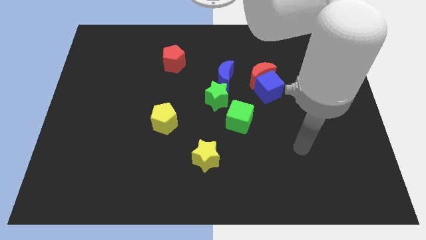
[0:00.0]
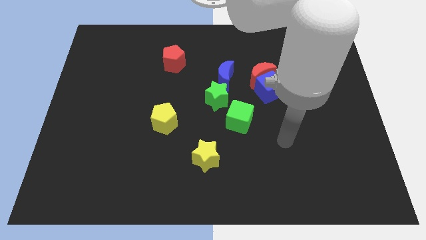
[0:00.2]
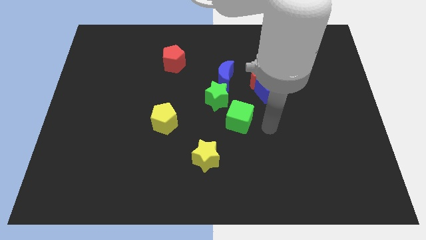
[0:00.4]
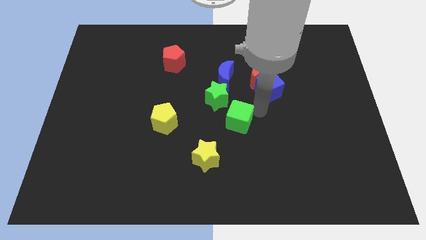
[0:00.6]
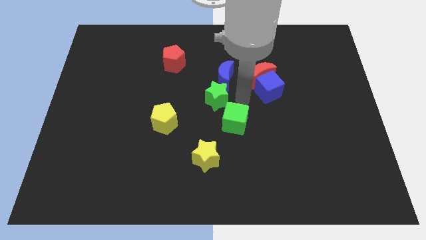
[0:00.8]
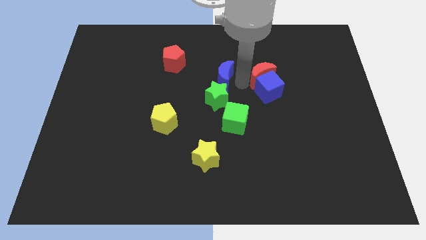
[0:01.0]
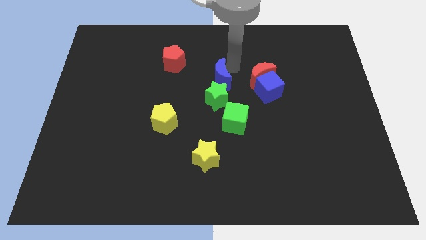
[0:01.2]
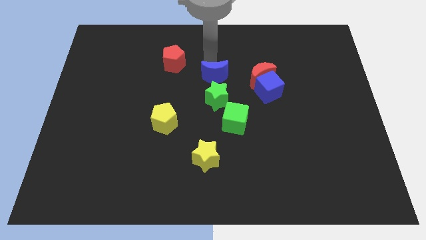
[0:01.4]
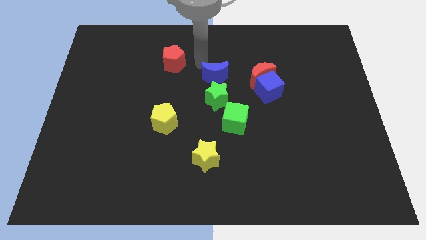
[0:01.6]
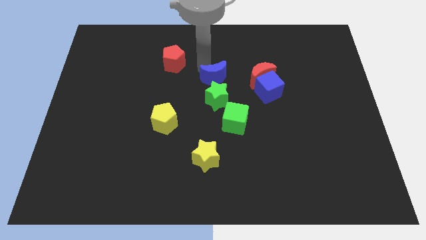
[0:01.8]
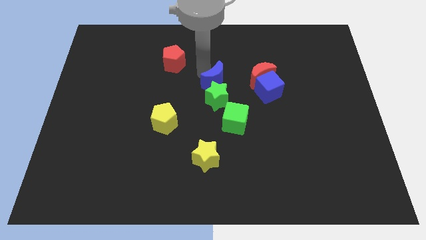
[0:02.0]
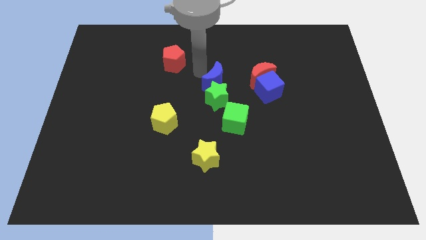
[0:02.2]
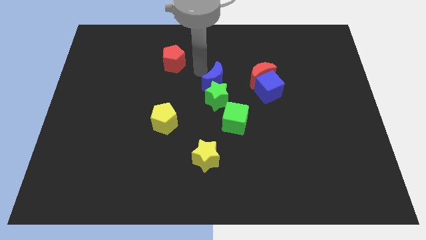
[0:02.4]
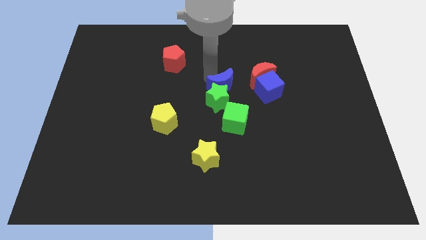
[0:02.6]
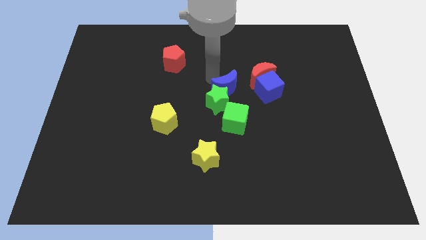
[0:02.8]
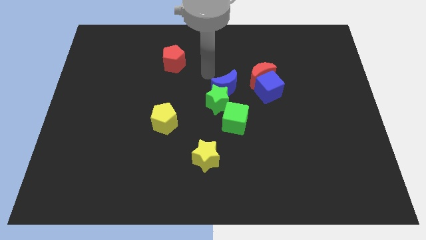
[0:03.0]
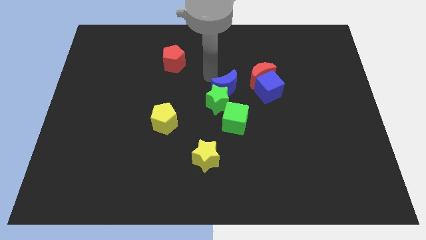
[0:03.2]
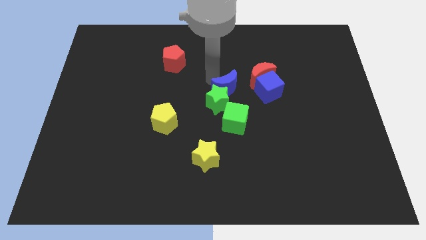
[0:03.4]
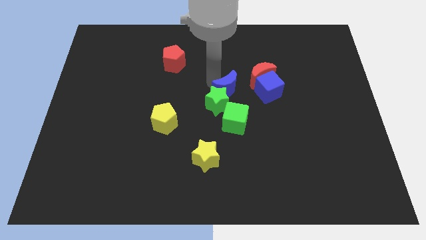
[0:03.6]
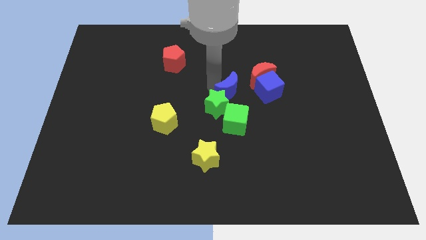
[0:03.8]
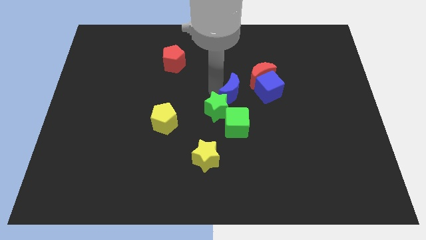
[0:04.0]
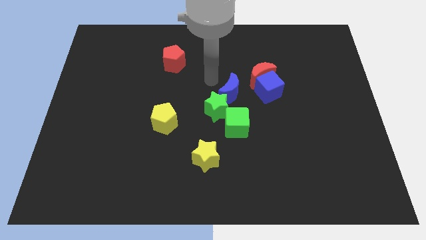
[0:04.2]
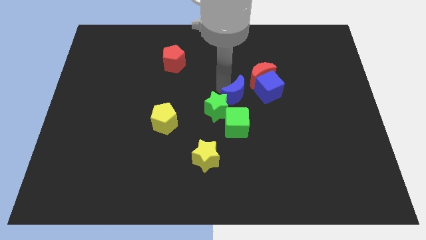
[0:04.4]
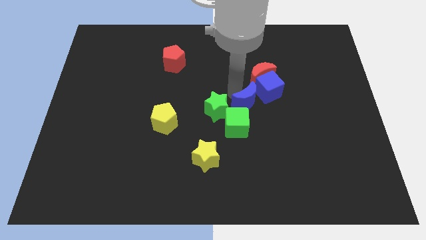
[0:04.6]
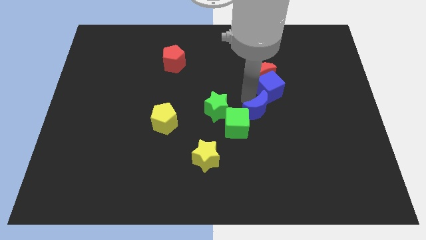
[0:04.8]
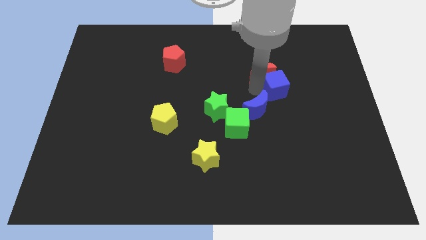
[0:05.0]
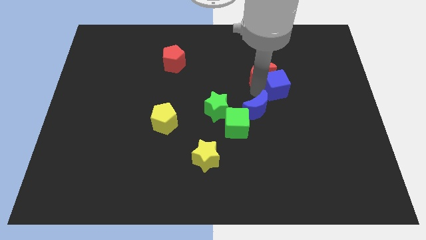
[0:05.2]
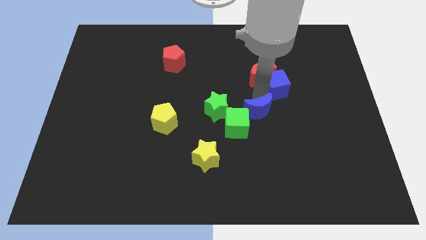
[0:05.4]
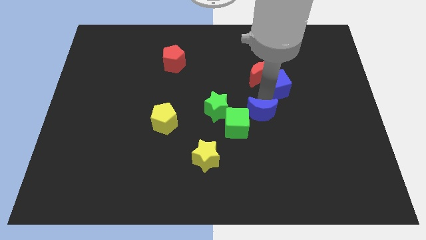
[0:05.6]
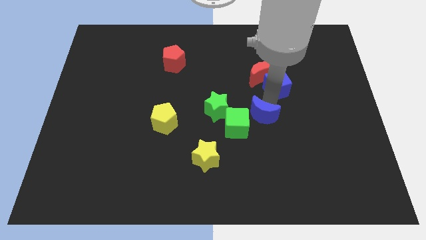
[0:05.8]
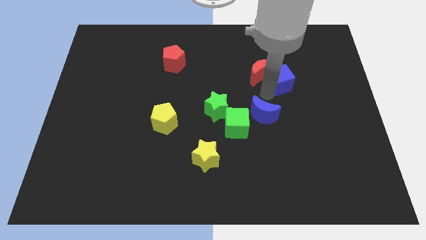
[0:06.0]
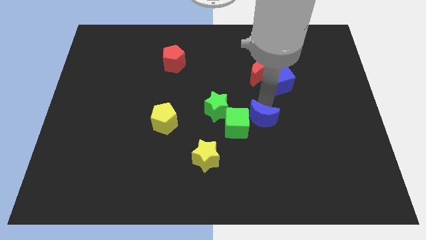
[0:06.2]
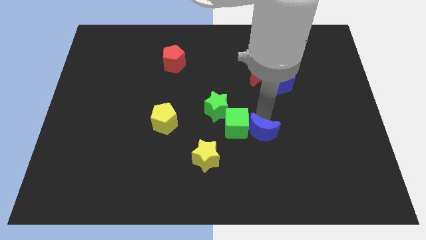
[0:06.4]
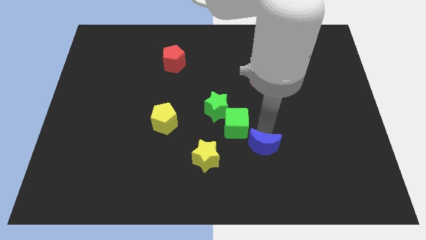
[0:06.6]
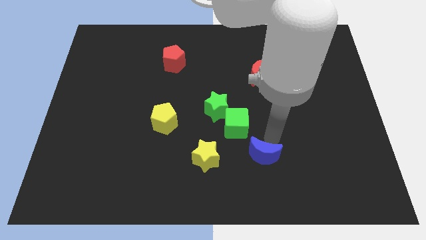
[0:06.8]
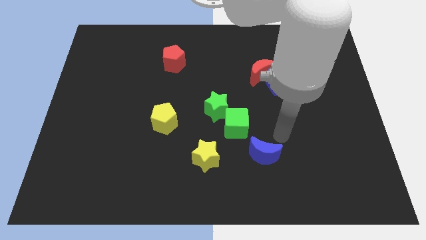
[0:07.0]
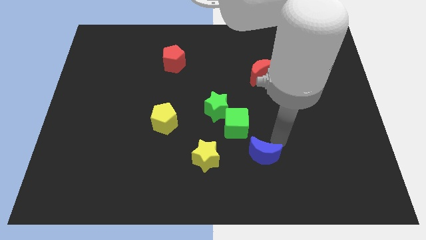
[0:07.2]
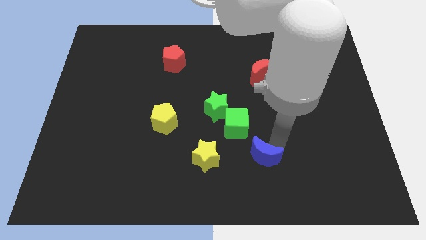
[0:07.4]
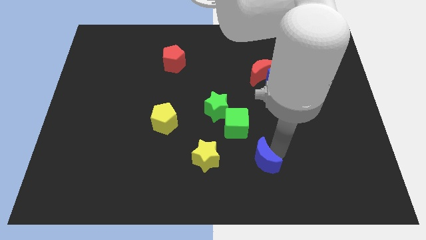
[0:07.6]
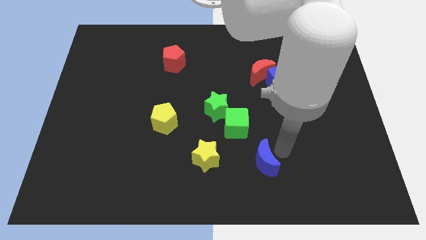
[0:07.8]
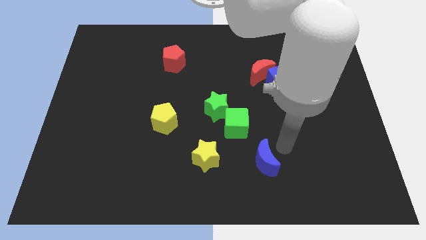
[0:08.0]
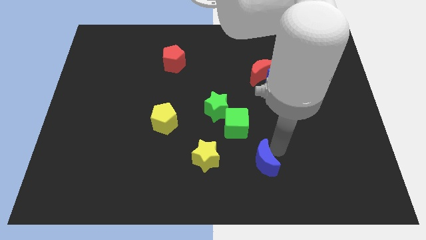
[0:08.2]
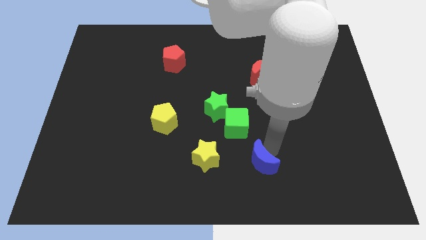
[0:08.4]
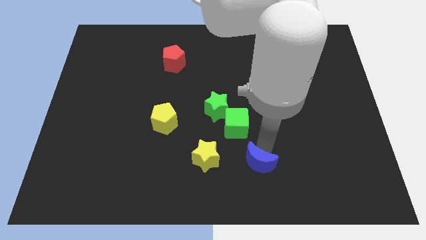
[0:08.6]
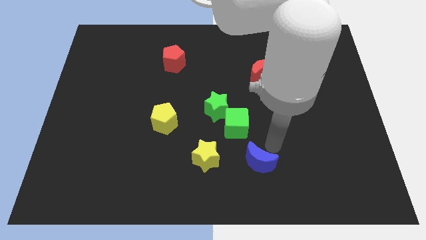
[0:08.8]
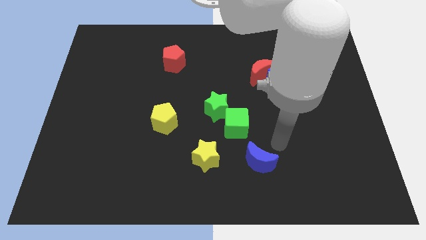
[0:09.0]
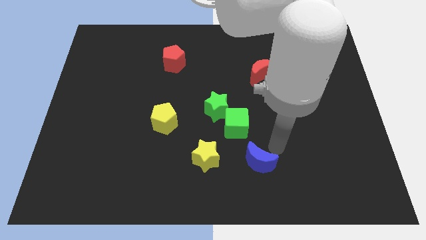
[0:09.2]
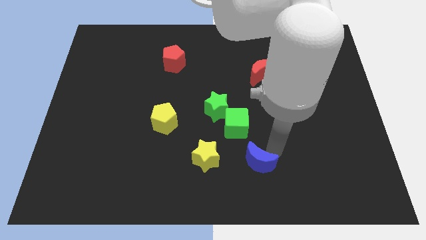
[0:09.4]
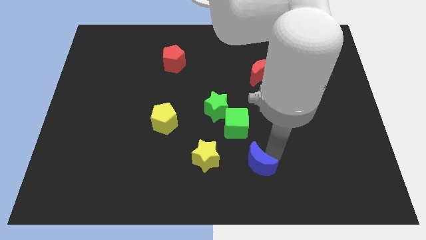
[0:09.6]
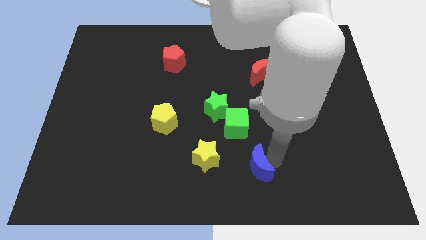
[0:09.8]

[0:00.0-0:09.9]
move the blue moon to the bottom

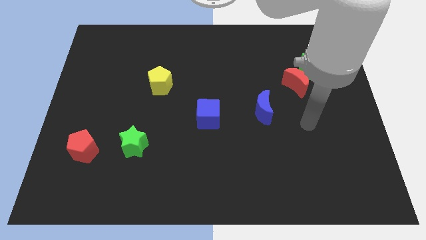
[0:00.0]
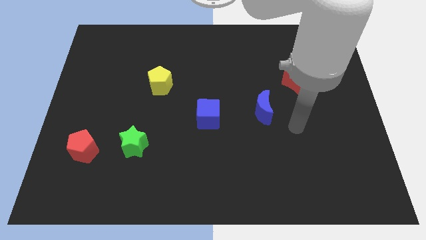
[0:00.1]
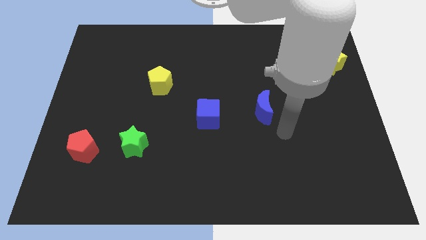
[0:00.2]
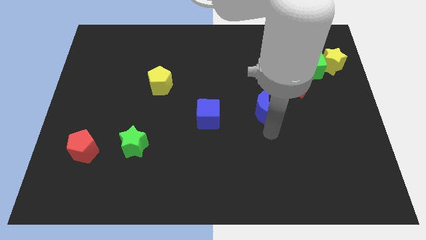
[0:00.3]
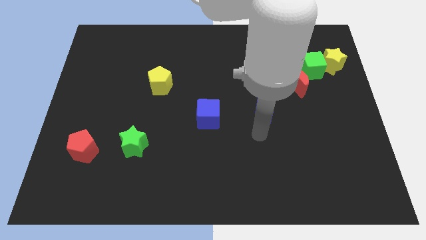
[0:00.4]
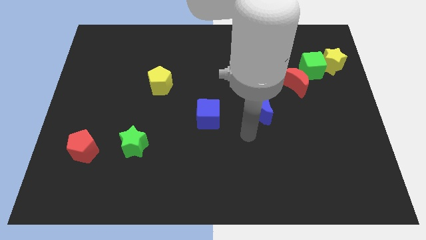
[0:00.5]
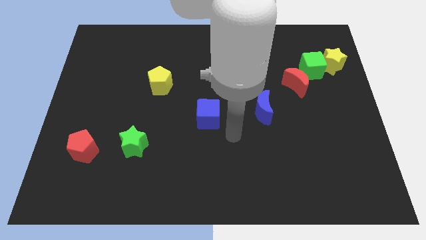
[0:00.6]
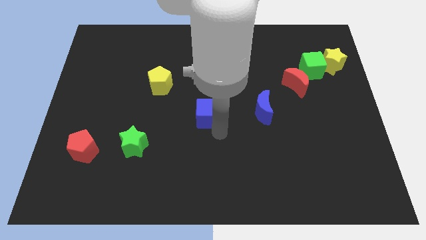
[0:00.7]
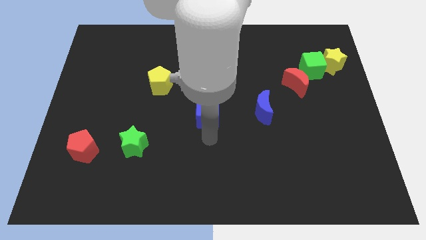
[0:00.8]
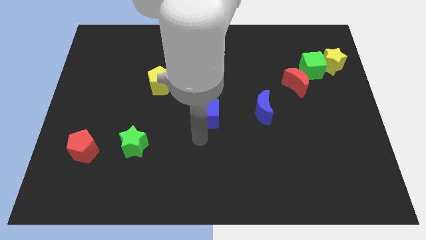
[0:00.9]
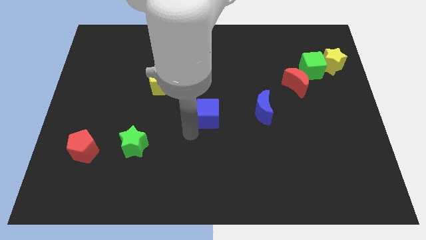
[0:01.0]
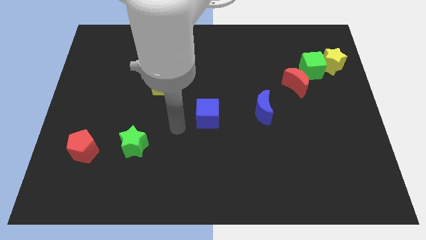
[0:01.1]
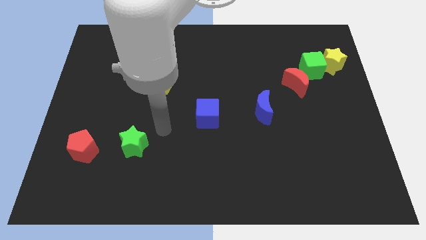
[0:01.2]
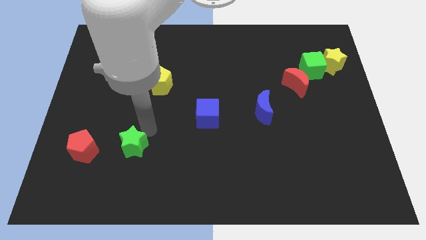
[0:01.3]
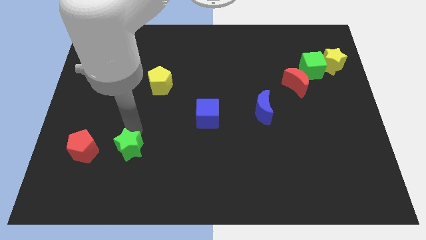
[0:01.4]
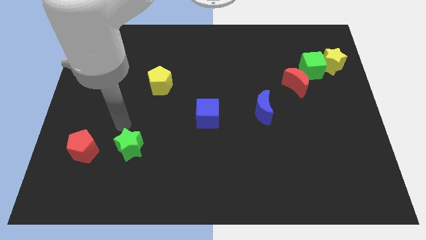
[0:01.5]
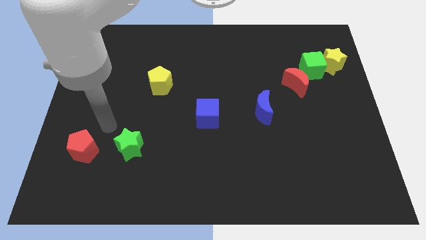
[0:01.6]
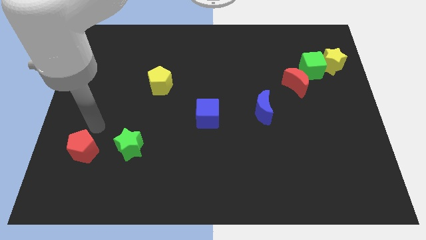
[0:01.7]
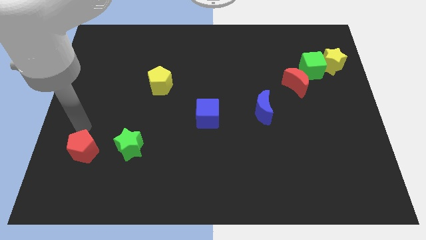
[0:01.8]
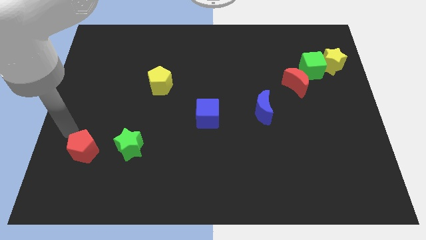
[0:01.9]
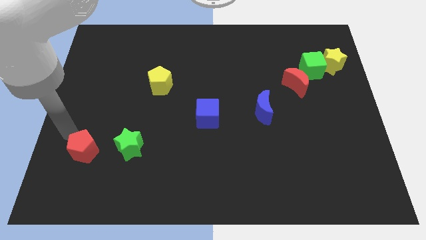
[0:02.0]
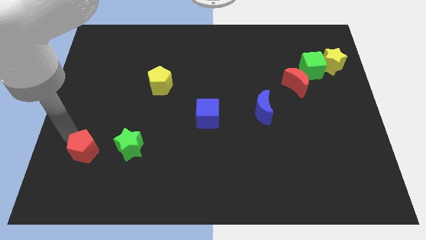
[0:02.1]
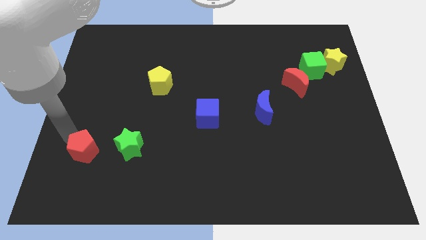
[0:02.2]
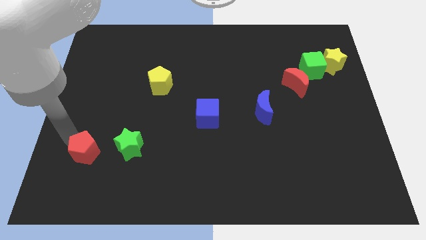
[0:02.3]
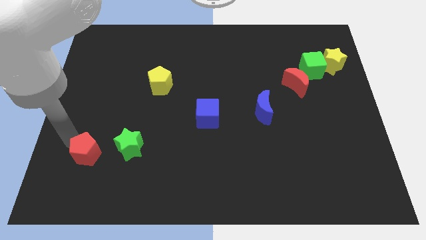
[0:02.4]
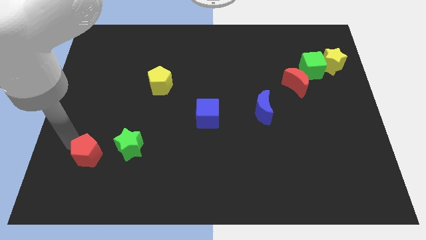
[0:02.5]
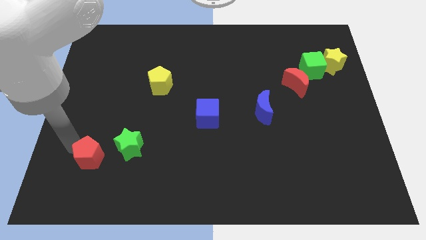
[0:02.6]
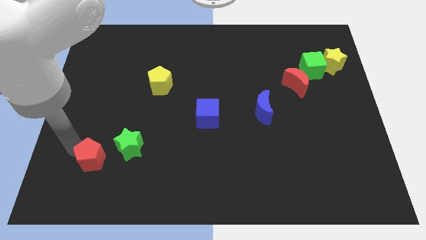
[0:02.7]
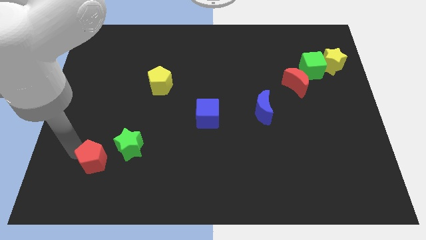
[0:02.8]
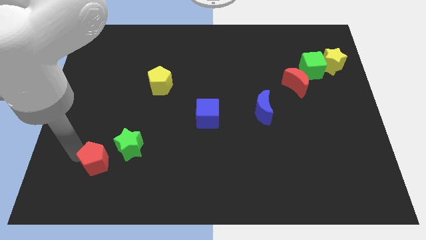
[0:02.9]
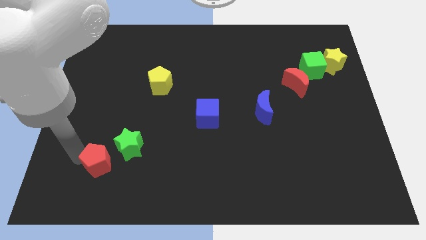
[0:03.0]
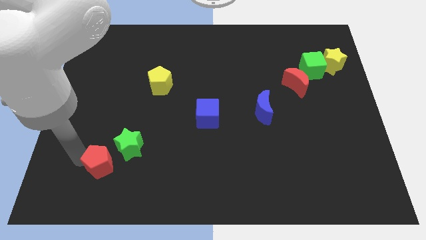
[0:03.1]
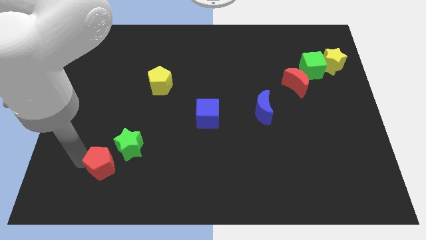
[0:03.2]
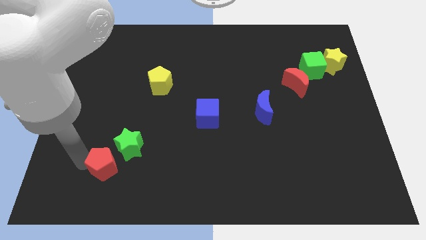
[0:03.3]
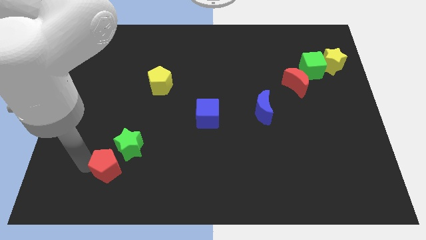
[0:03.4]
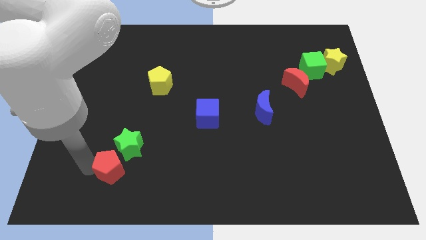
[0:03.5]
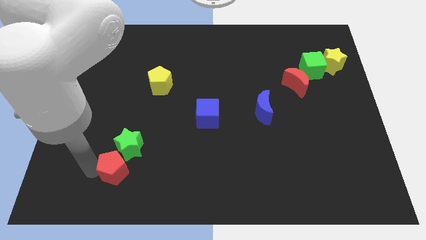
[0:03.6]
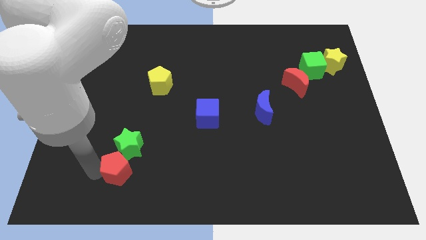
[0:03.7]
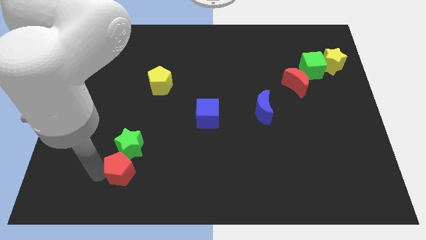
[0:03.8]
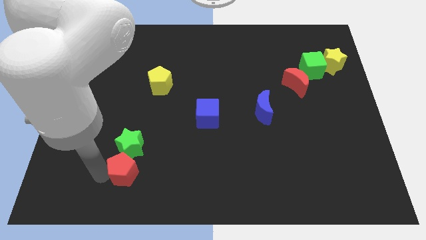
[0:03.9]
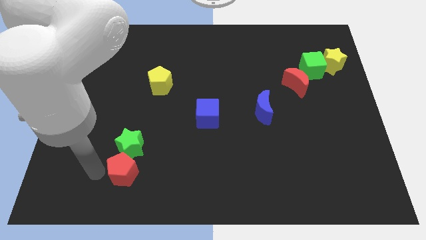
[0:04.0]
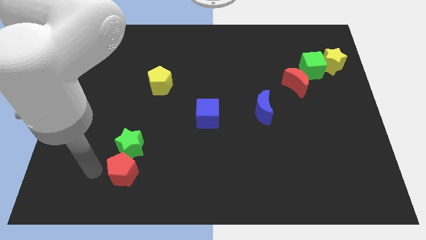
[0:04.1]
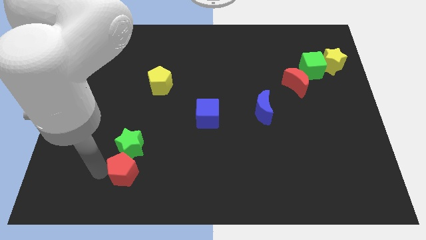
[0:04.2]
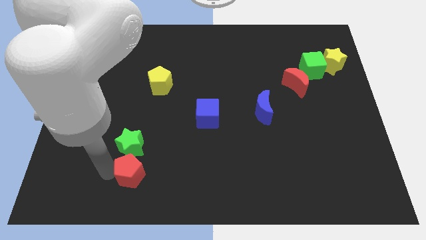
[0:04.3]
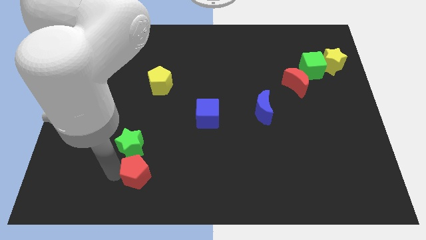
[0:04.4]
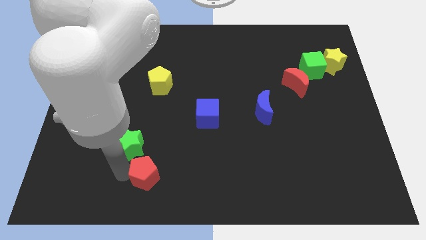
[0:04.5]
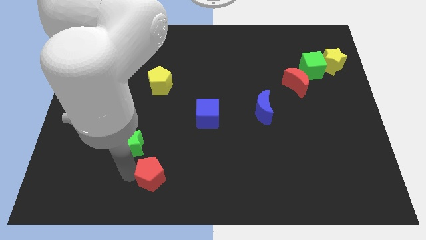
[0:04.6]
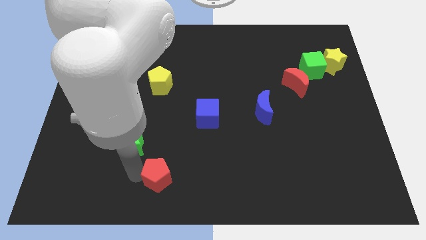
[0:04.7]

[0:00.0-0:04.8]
push the red pentagon to the bottom side
